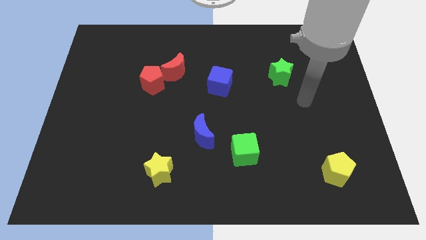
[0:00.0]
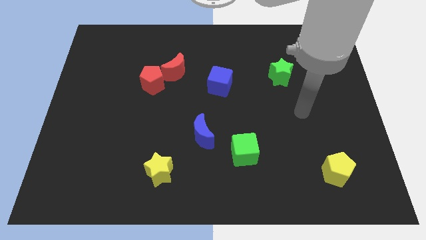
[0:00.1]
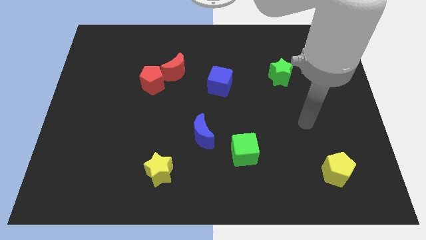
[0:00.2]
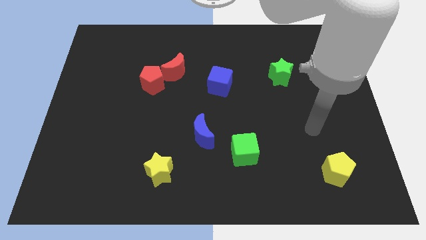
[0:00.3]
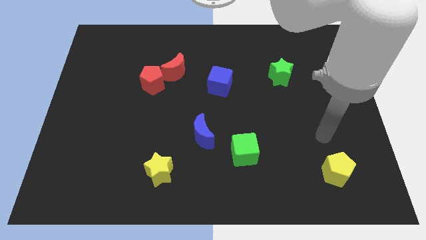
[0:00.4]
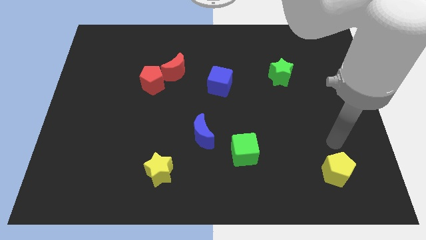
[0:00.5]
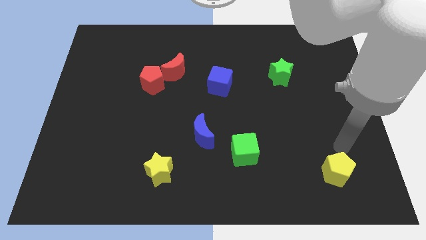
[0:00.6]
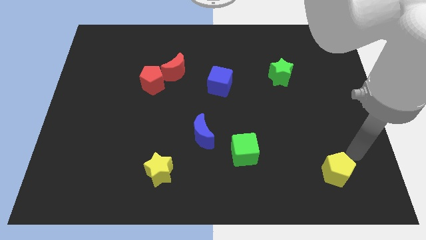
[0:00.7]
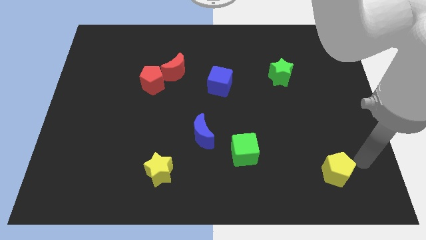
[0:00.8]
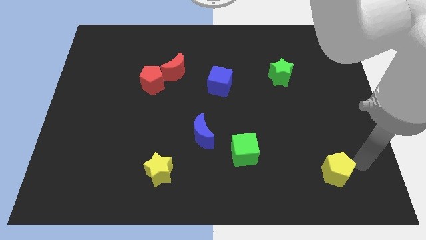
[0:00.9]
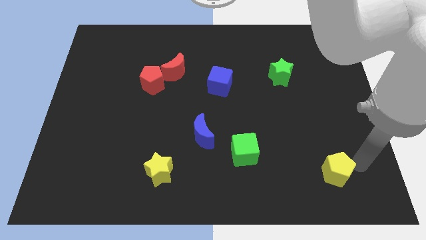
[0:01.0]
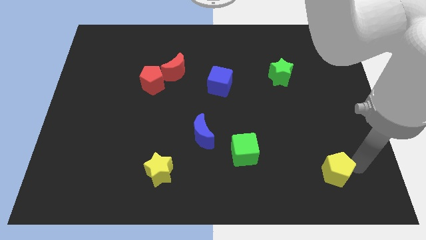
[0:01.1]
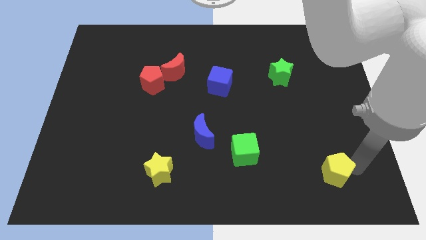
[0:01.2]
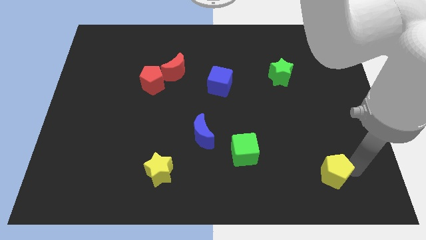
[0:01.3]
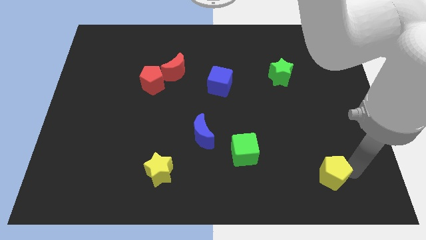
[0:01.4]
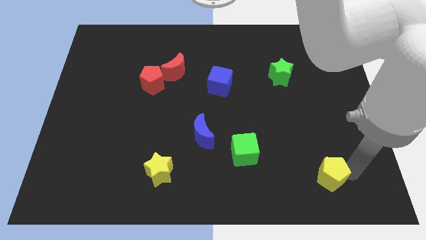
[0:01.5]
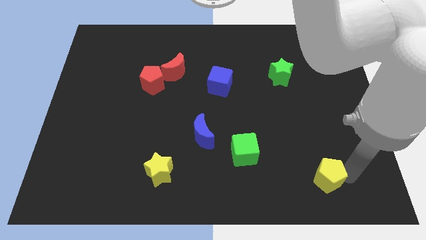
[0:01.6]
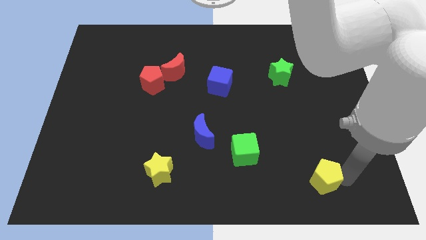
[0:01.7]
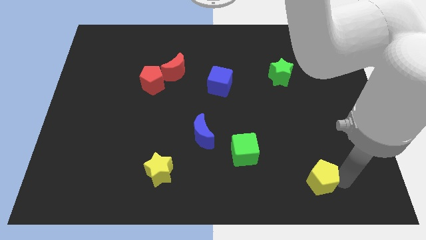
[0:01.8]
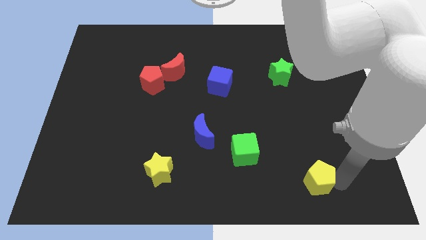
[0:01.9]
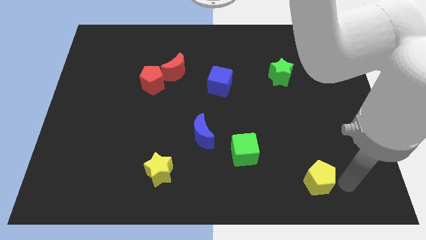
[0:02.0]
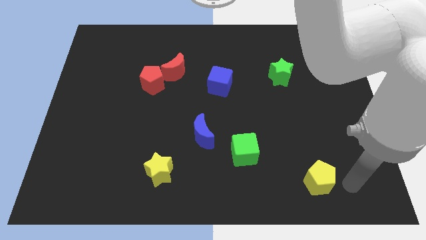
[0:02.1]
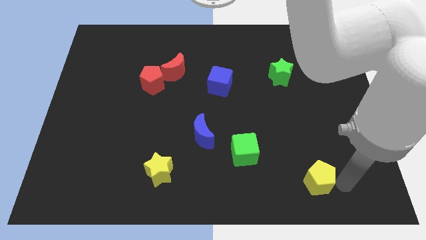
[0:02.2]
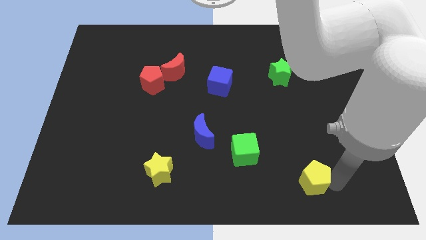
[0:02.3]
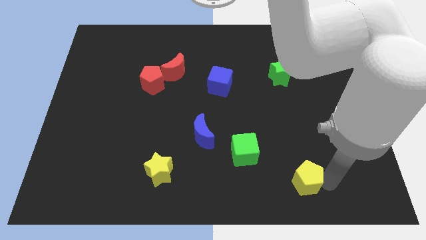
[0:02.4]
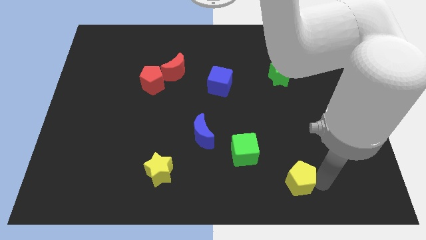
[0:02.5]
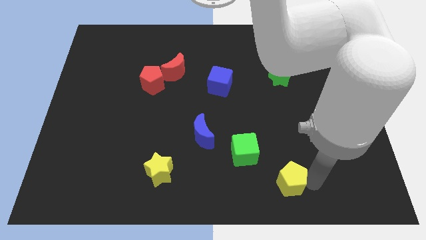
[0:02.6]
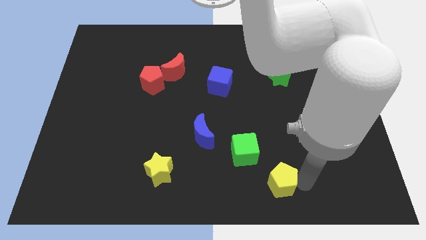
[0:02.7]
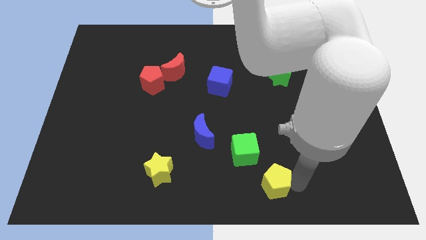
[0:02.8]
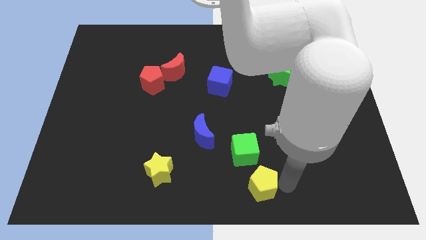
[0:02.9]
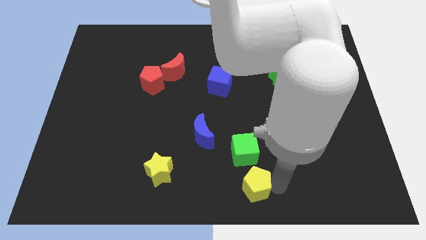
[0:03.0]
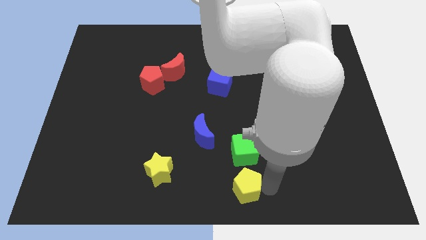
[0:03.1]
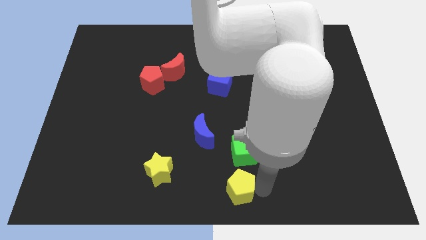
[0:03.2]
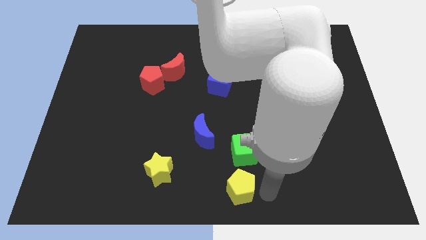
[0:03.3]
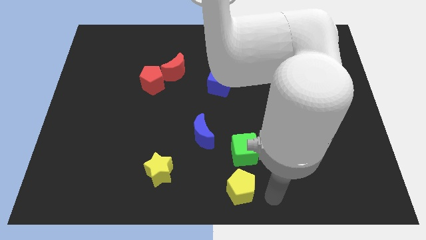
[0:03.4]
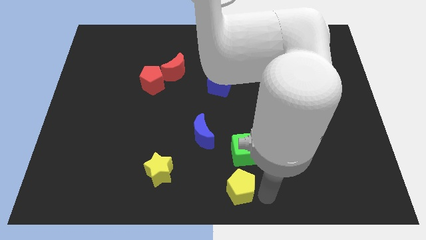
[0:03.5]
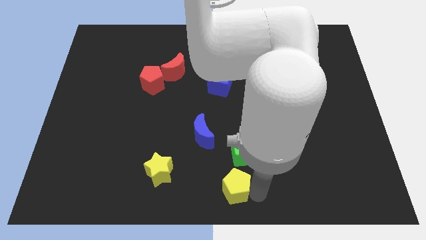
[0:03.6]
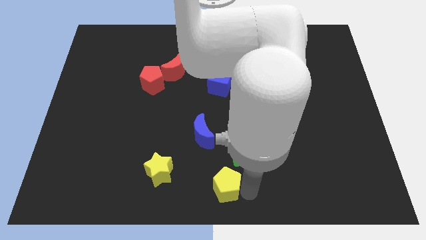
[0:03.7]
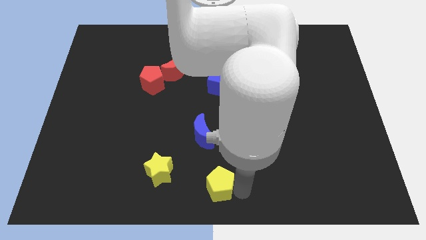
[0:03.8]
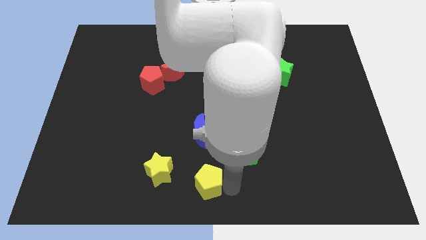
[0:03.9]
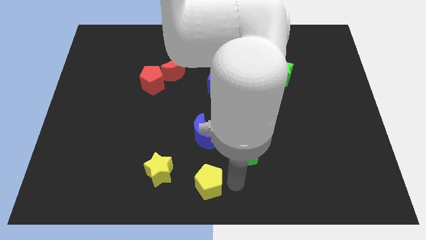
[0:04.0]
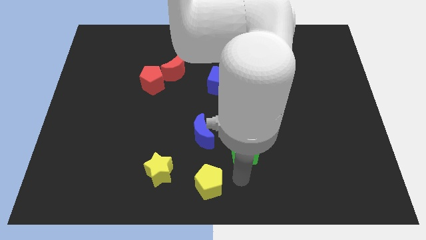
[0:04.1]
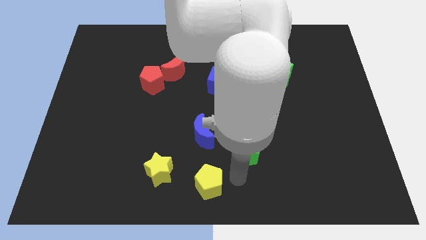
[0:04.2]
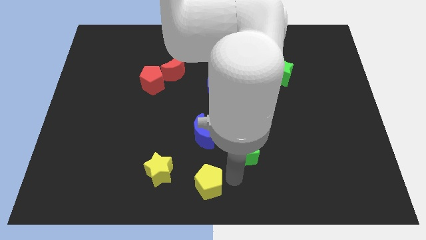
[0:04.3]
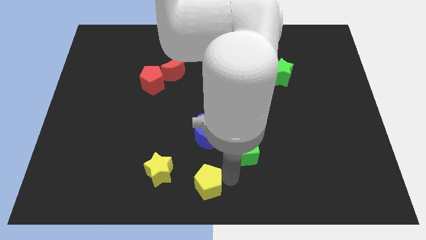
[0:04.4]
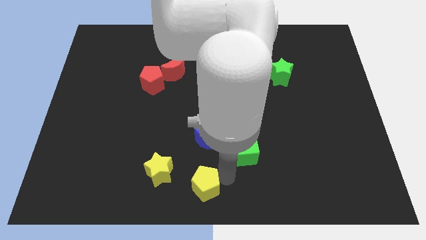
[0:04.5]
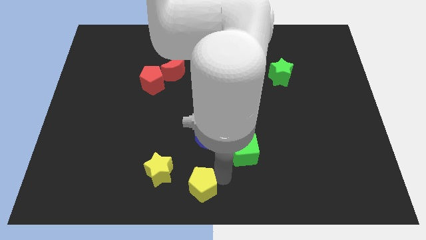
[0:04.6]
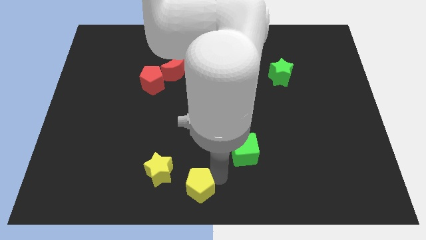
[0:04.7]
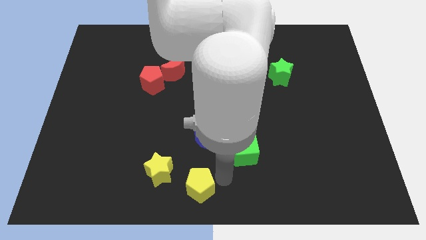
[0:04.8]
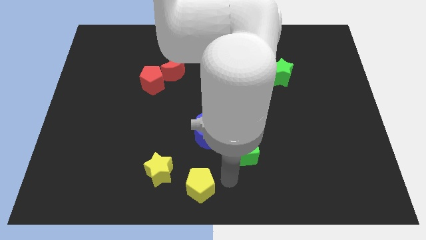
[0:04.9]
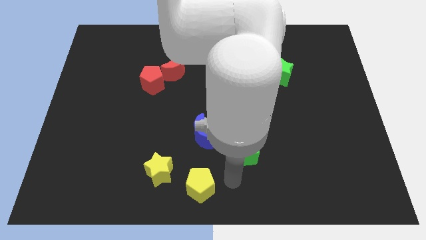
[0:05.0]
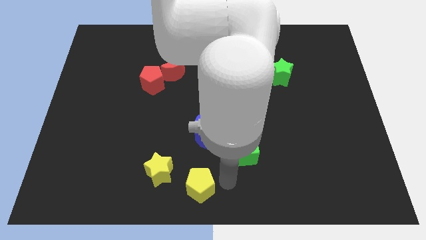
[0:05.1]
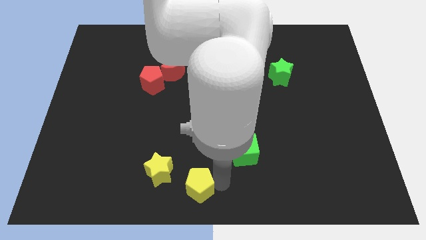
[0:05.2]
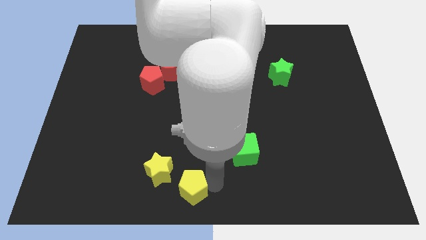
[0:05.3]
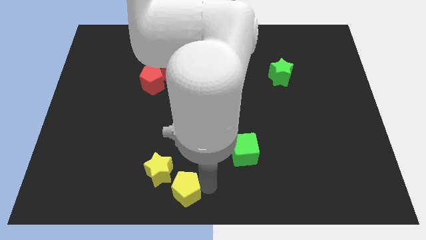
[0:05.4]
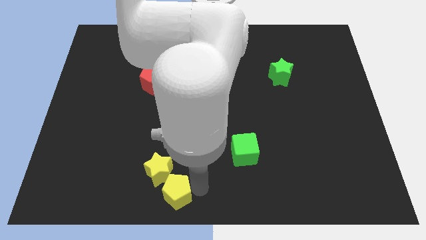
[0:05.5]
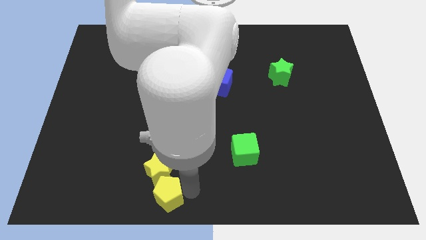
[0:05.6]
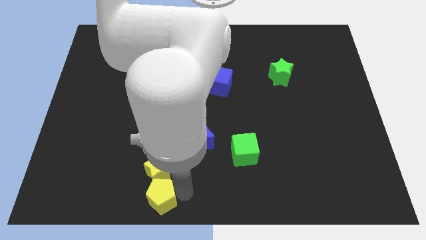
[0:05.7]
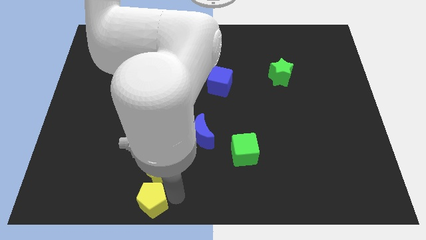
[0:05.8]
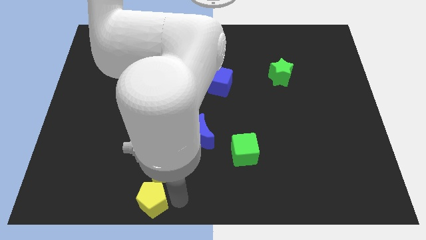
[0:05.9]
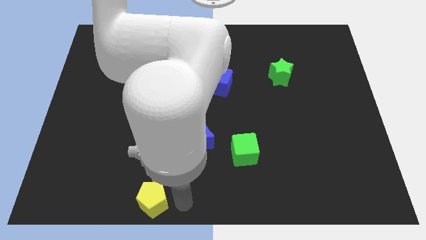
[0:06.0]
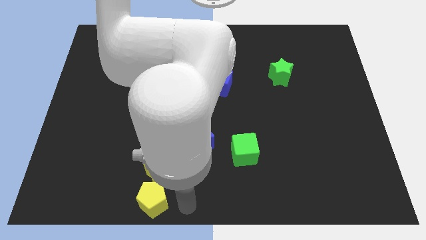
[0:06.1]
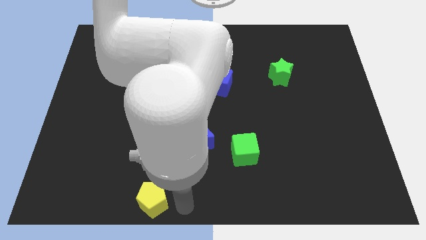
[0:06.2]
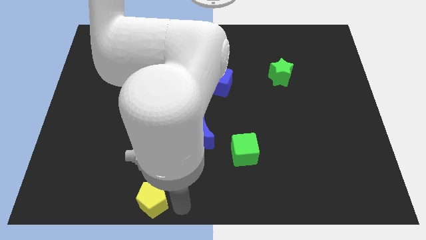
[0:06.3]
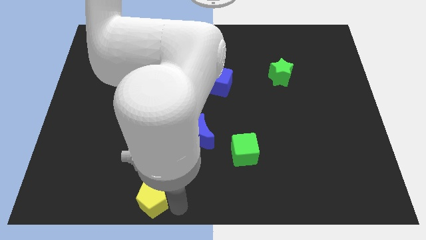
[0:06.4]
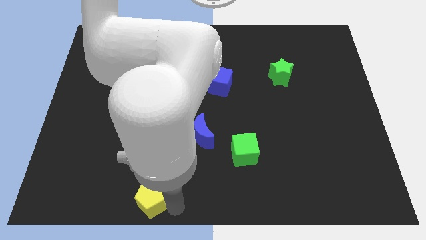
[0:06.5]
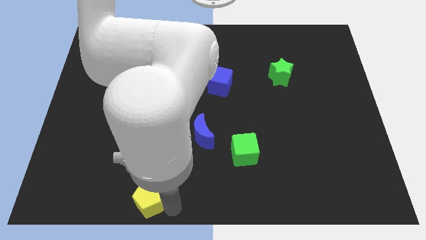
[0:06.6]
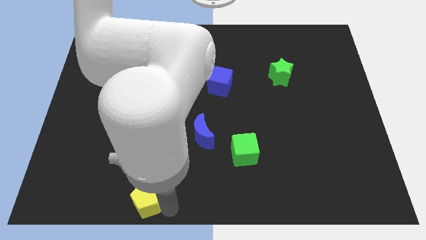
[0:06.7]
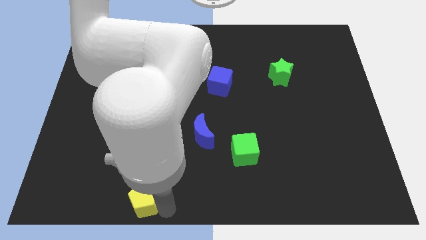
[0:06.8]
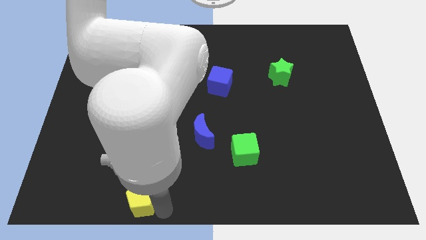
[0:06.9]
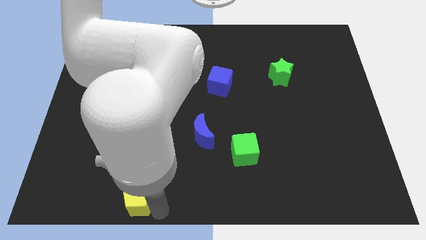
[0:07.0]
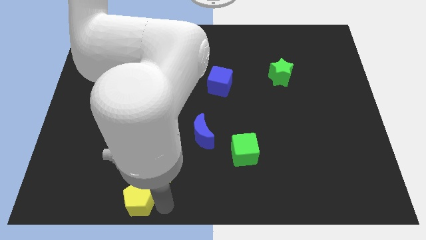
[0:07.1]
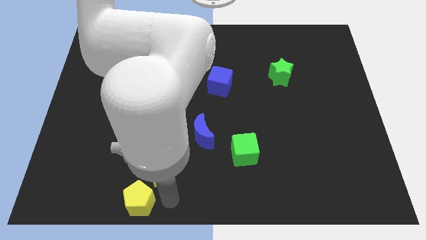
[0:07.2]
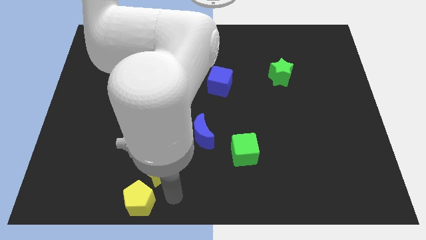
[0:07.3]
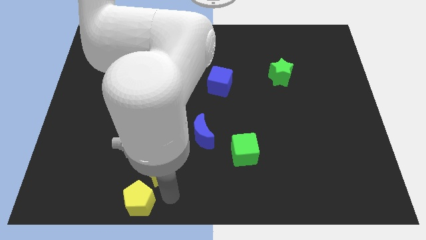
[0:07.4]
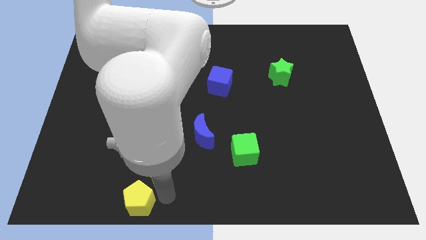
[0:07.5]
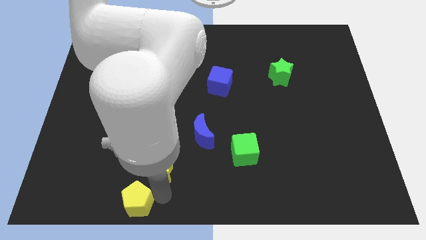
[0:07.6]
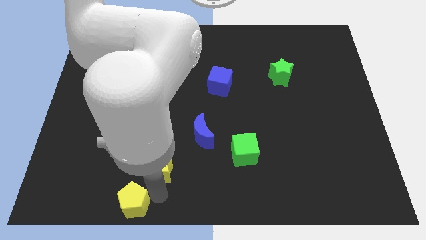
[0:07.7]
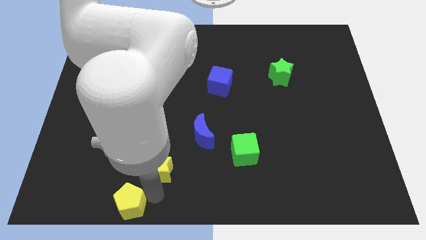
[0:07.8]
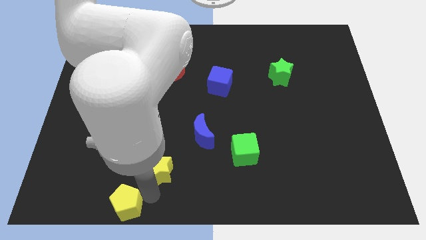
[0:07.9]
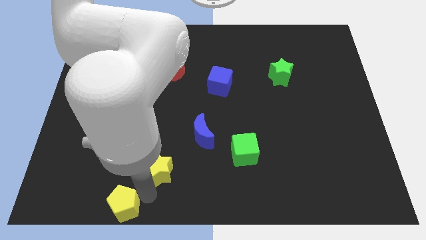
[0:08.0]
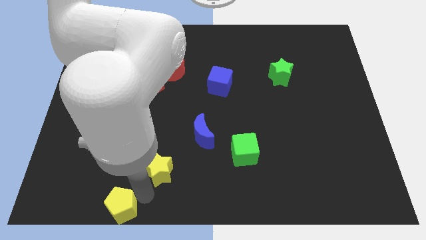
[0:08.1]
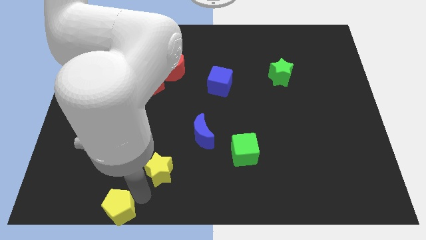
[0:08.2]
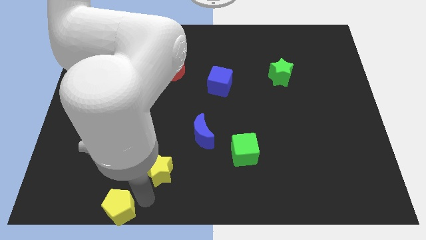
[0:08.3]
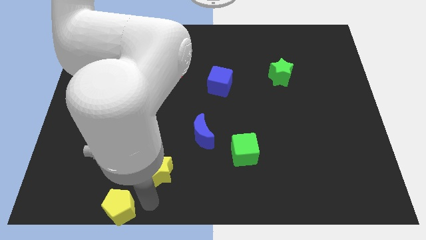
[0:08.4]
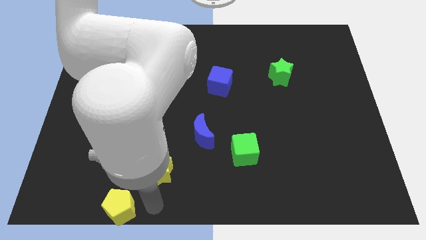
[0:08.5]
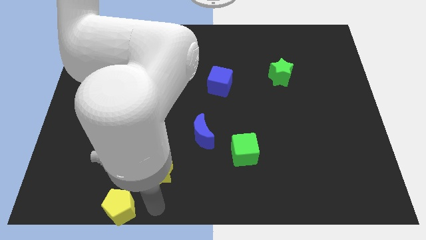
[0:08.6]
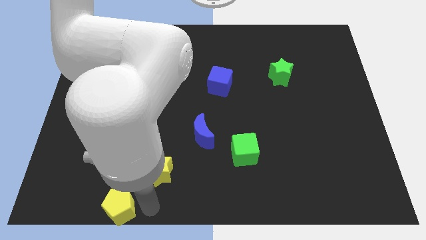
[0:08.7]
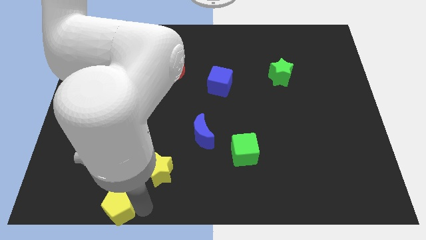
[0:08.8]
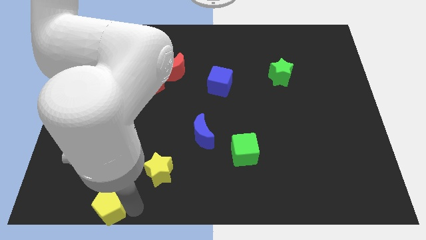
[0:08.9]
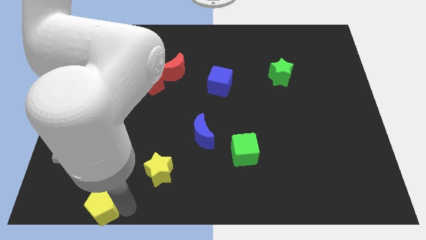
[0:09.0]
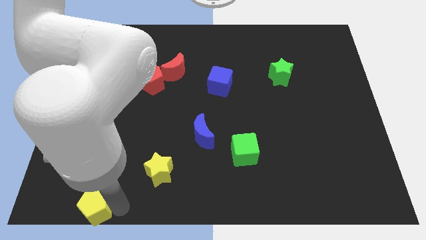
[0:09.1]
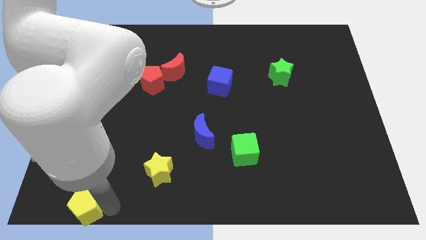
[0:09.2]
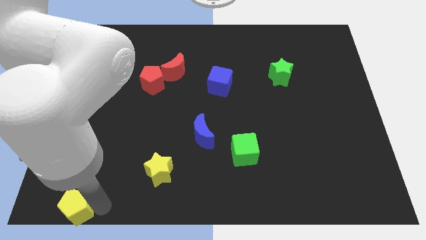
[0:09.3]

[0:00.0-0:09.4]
slide the yellow pentagon to the bottom left
